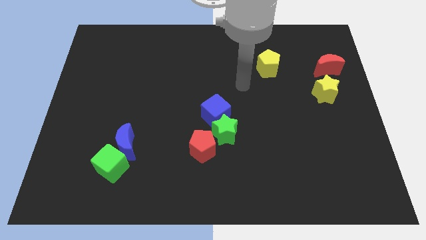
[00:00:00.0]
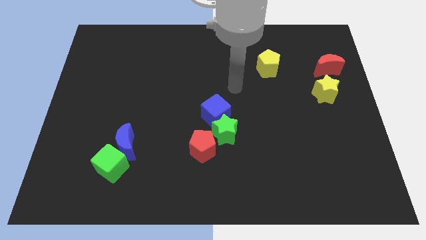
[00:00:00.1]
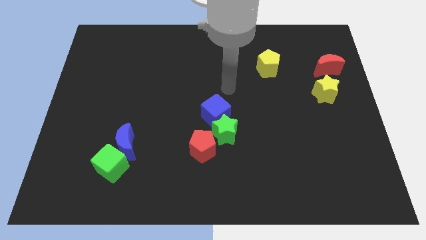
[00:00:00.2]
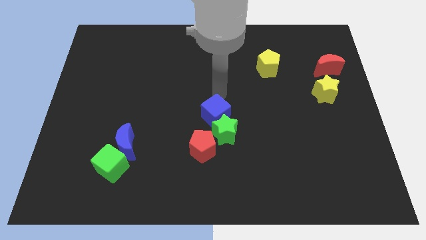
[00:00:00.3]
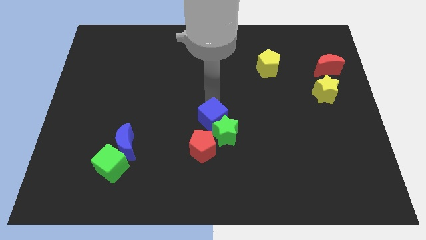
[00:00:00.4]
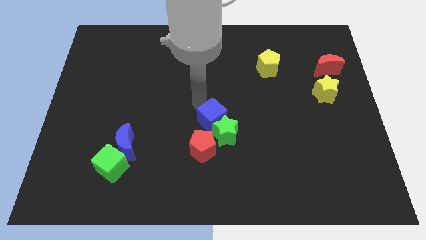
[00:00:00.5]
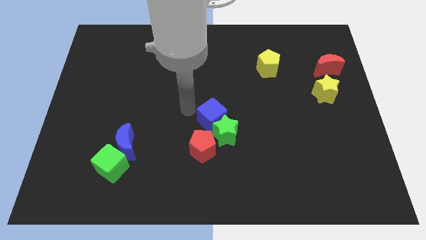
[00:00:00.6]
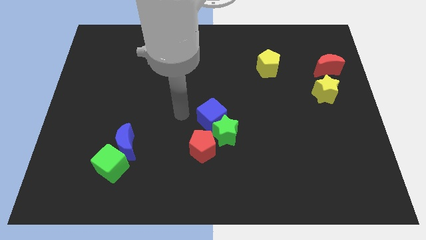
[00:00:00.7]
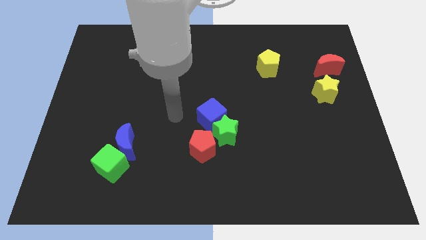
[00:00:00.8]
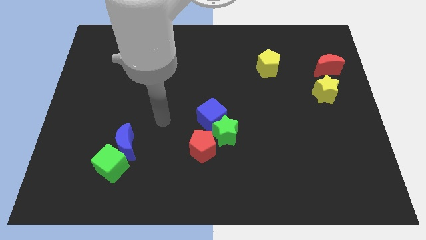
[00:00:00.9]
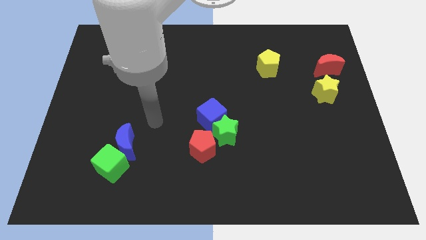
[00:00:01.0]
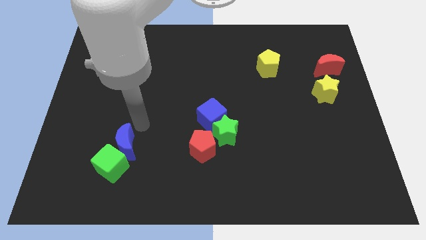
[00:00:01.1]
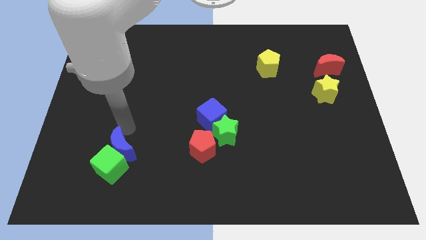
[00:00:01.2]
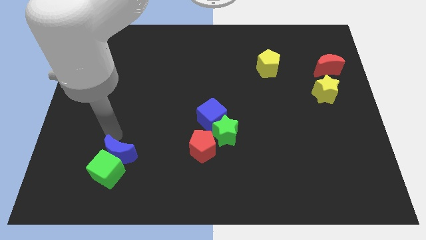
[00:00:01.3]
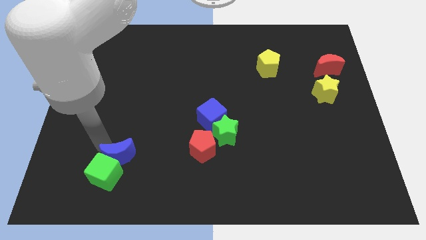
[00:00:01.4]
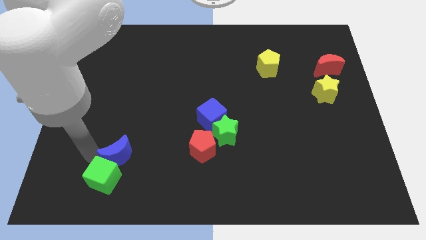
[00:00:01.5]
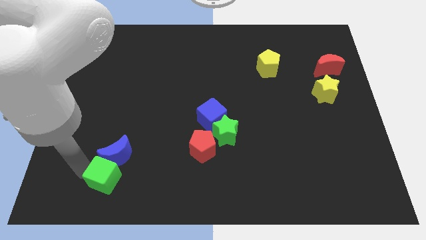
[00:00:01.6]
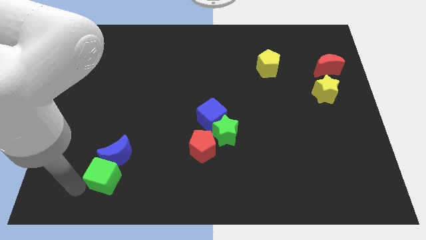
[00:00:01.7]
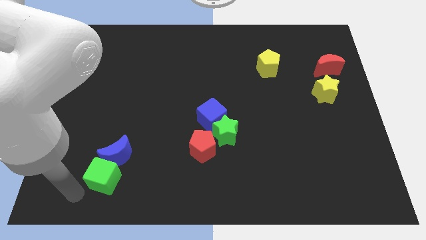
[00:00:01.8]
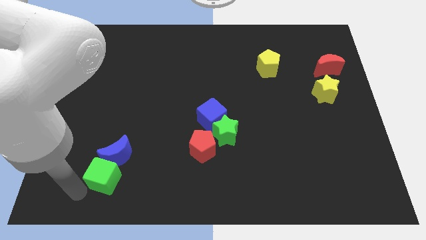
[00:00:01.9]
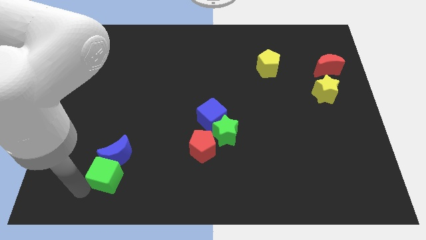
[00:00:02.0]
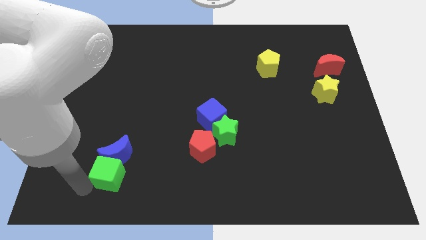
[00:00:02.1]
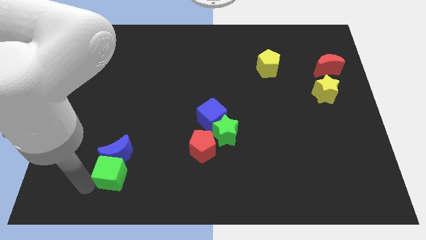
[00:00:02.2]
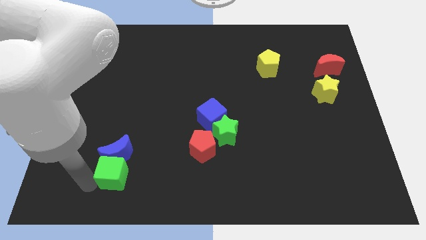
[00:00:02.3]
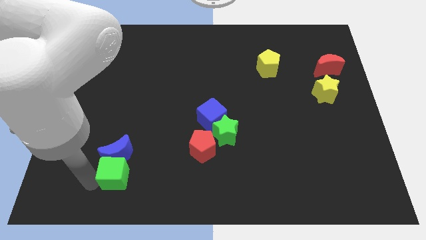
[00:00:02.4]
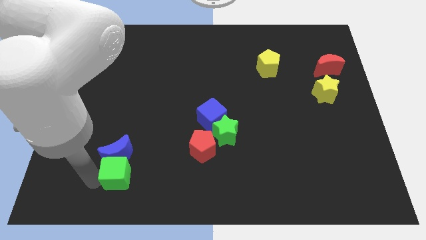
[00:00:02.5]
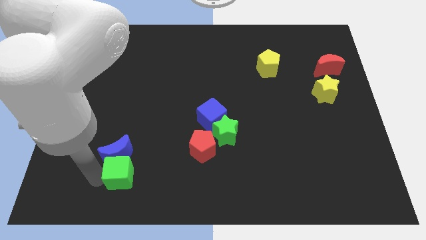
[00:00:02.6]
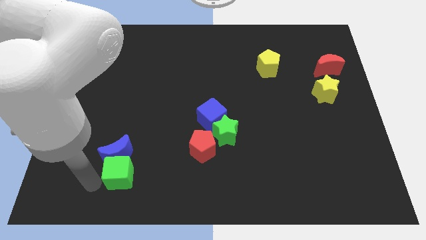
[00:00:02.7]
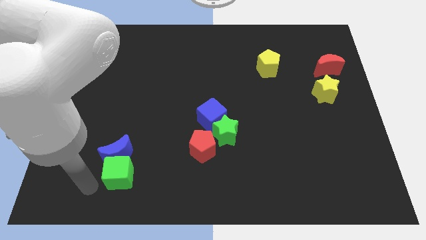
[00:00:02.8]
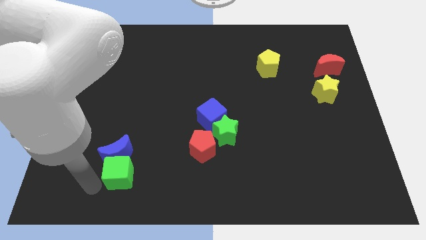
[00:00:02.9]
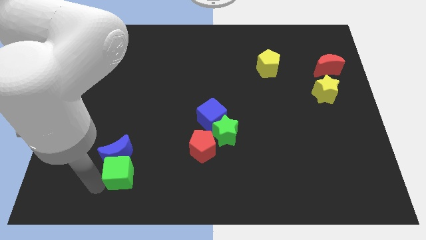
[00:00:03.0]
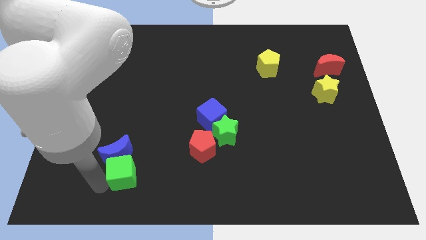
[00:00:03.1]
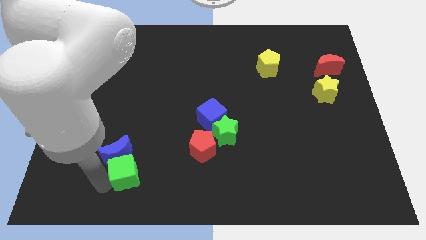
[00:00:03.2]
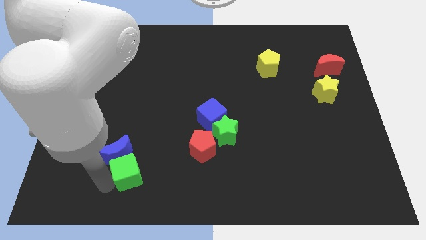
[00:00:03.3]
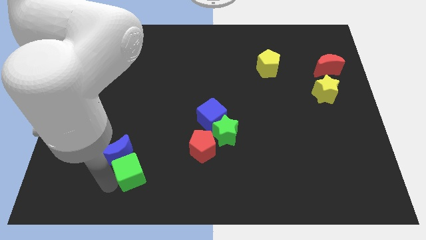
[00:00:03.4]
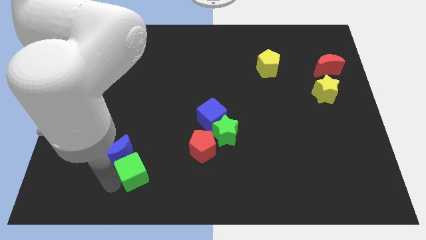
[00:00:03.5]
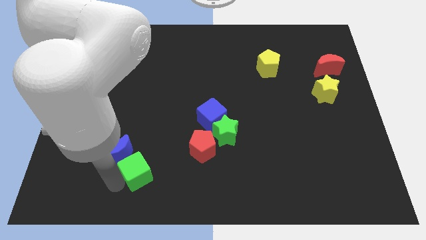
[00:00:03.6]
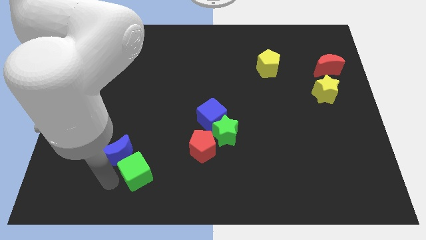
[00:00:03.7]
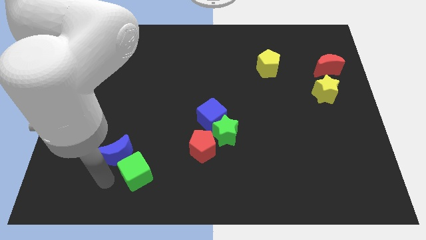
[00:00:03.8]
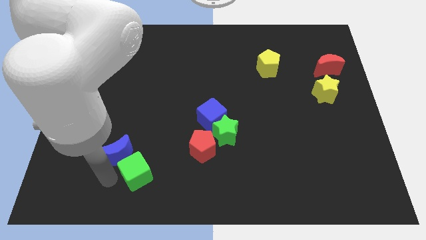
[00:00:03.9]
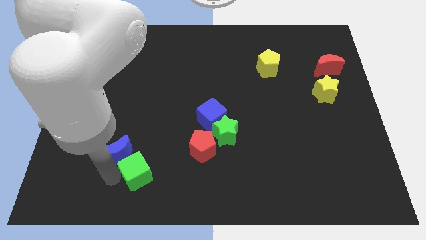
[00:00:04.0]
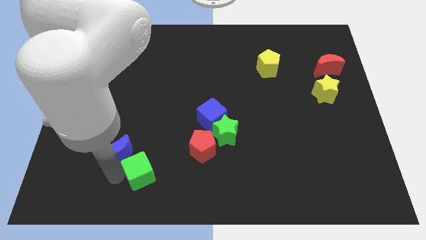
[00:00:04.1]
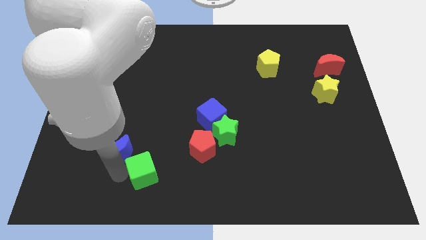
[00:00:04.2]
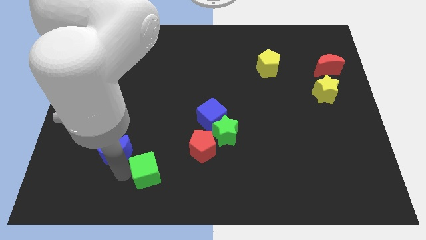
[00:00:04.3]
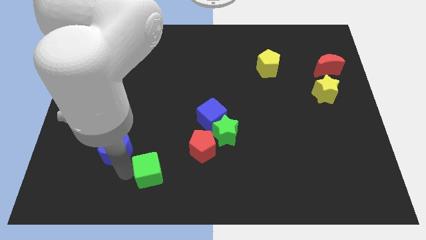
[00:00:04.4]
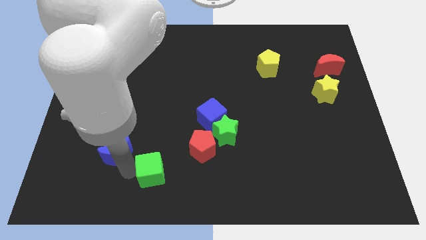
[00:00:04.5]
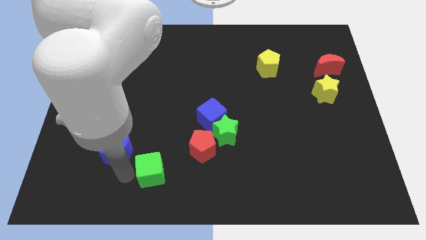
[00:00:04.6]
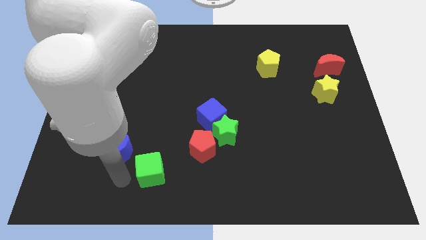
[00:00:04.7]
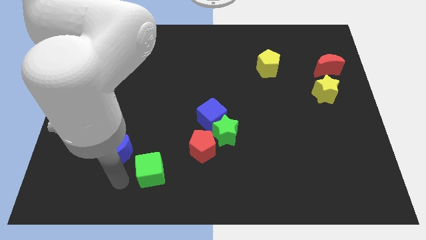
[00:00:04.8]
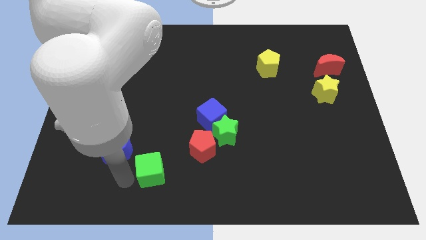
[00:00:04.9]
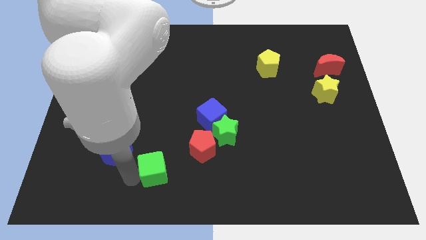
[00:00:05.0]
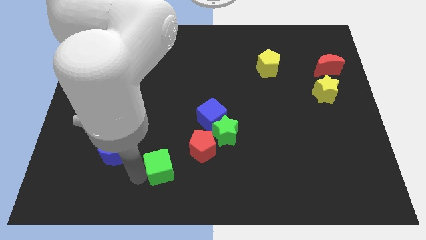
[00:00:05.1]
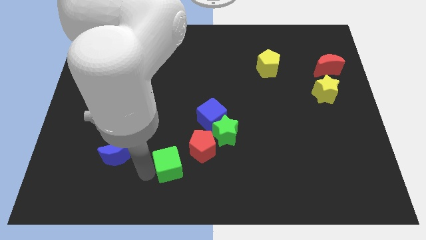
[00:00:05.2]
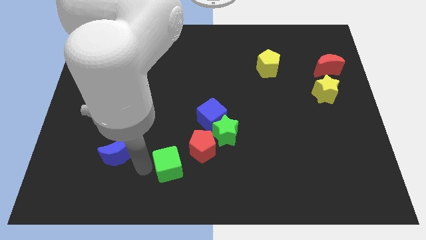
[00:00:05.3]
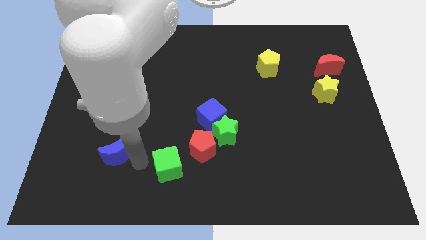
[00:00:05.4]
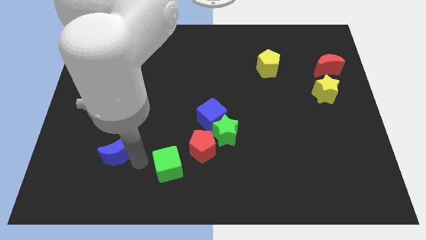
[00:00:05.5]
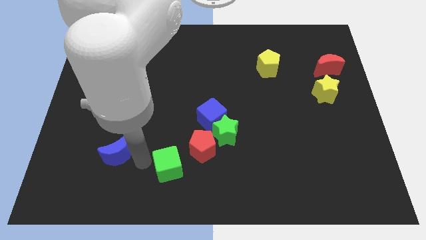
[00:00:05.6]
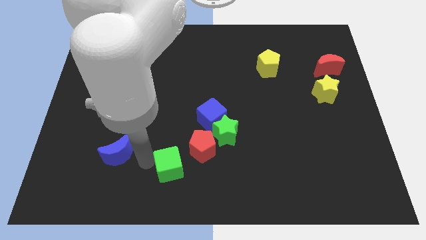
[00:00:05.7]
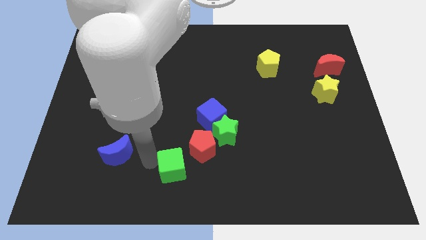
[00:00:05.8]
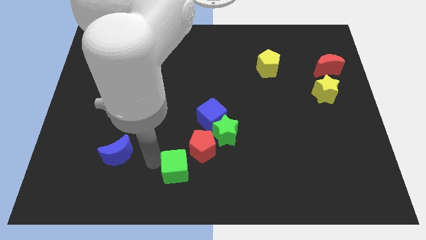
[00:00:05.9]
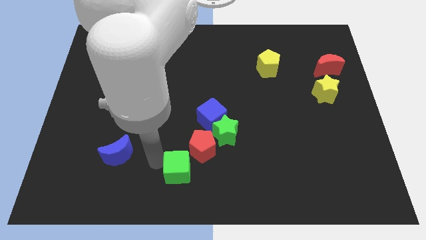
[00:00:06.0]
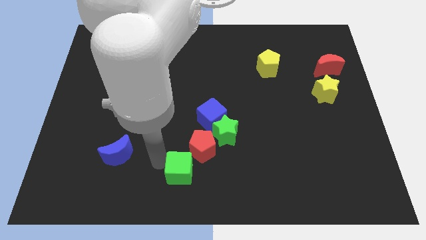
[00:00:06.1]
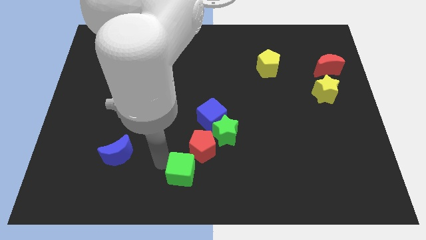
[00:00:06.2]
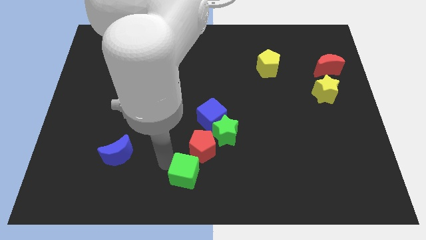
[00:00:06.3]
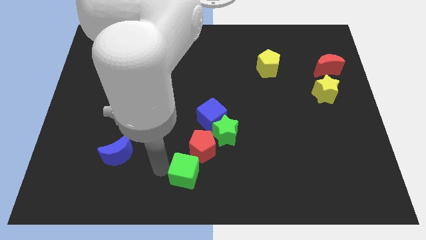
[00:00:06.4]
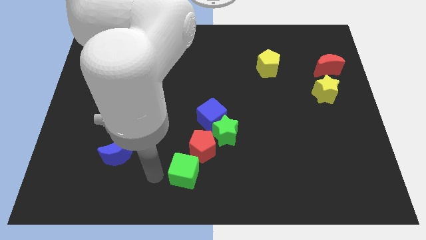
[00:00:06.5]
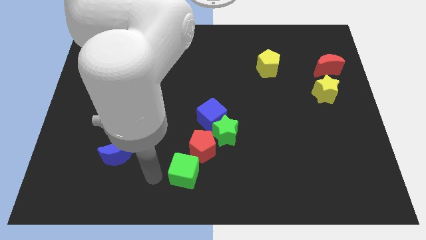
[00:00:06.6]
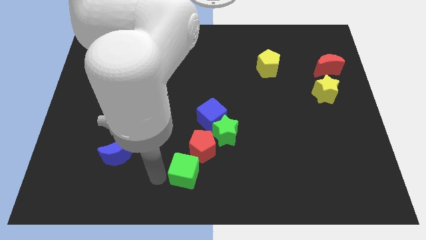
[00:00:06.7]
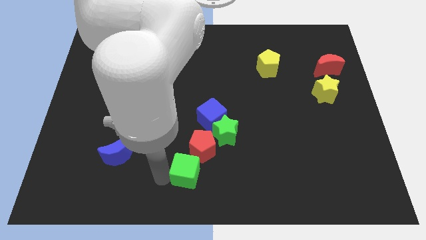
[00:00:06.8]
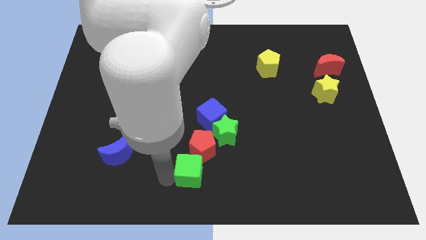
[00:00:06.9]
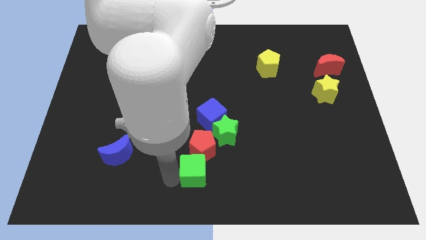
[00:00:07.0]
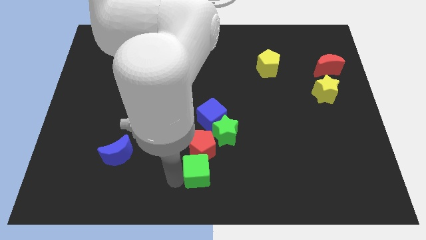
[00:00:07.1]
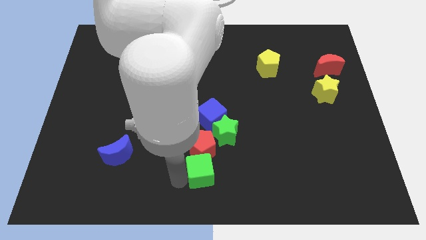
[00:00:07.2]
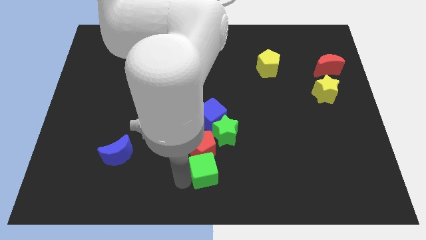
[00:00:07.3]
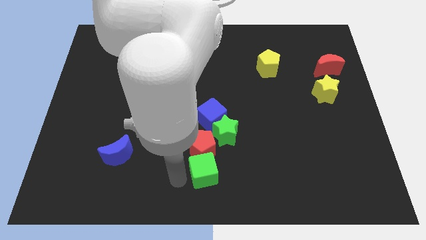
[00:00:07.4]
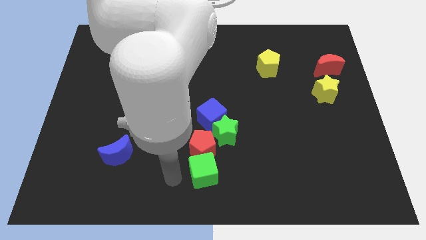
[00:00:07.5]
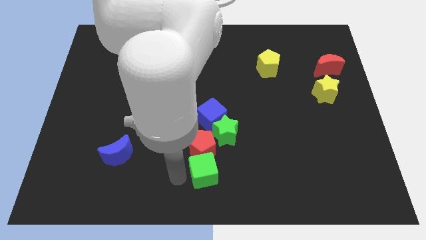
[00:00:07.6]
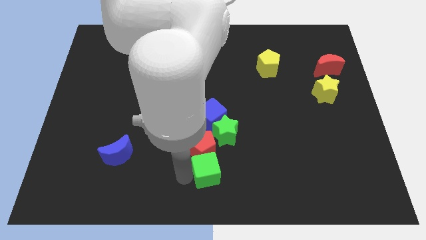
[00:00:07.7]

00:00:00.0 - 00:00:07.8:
move the green cube to the right

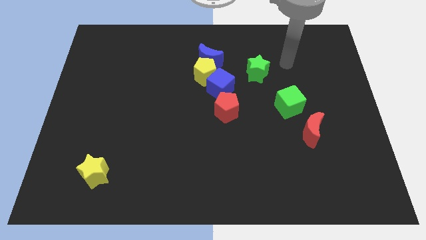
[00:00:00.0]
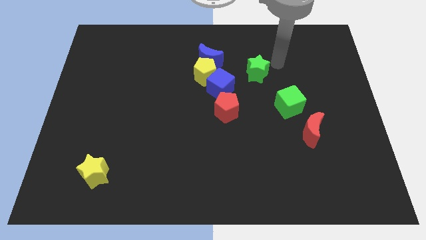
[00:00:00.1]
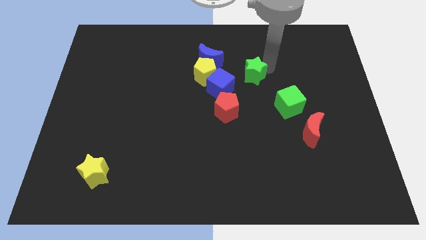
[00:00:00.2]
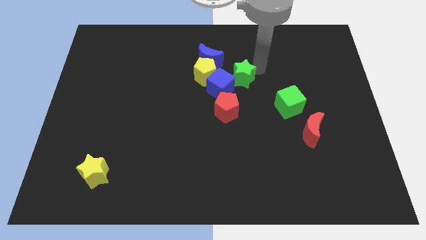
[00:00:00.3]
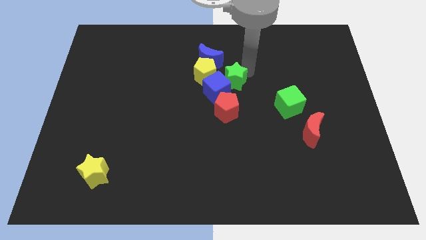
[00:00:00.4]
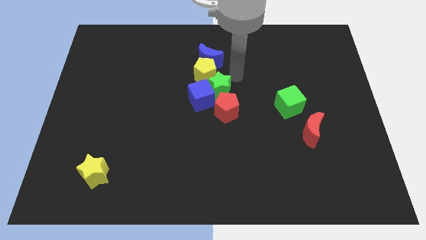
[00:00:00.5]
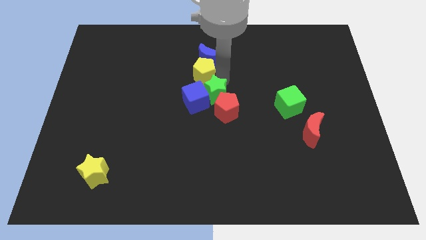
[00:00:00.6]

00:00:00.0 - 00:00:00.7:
push the blue cube a bit down and left diagonally
